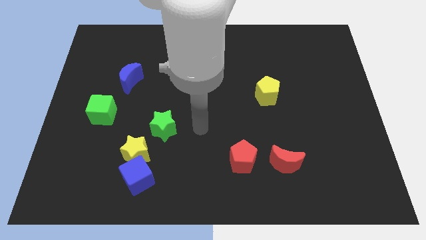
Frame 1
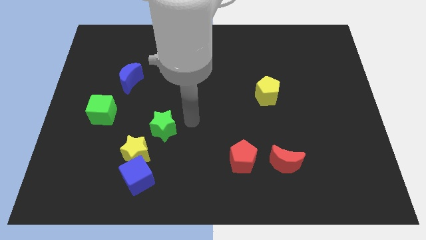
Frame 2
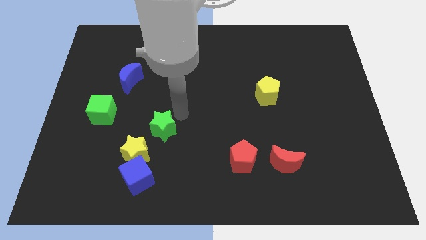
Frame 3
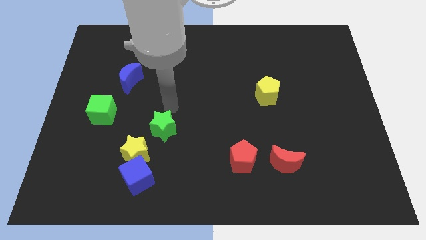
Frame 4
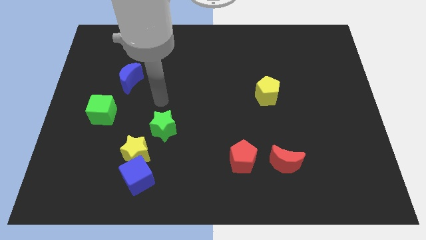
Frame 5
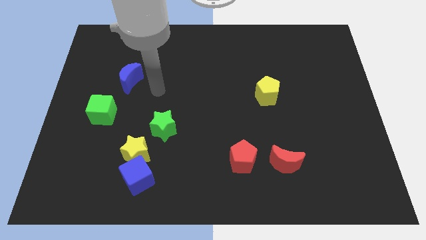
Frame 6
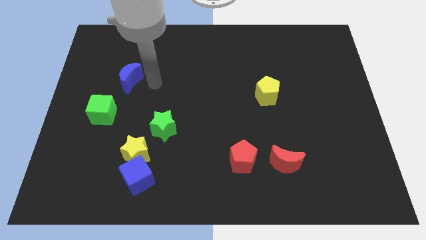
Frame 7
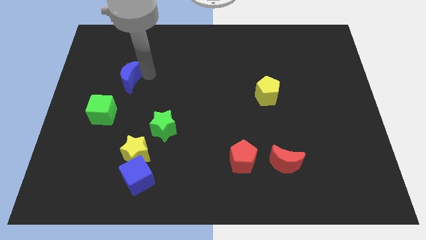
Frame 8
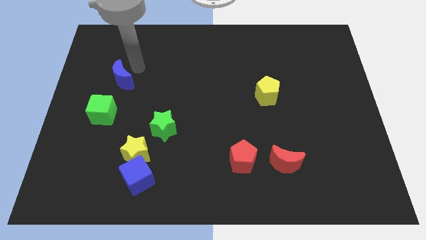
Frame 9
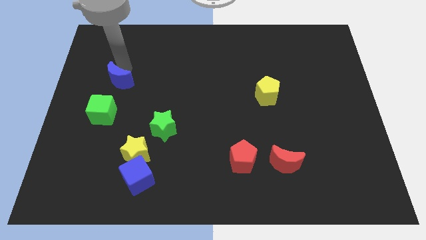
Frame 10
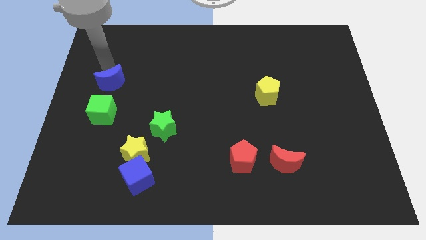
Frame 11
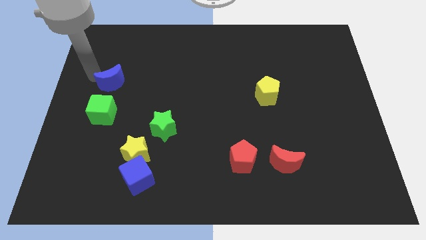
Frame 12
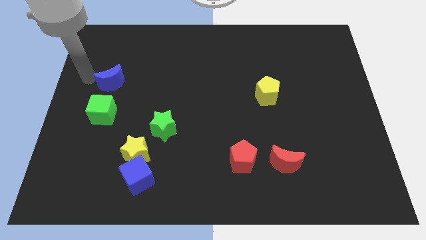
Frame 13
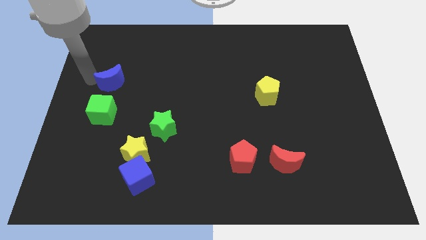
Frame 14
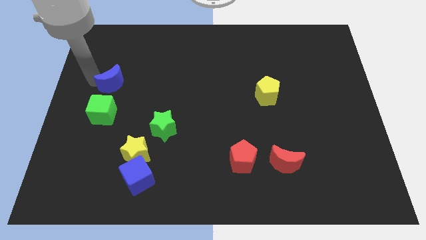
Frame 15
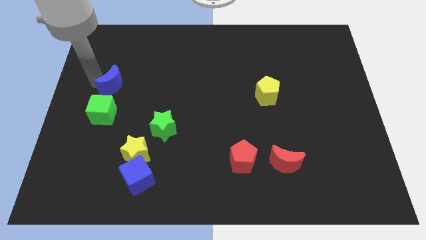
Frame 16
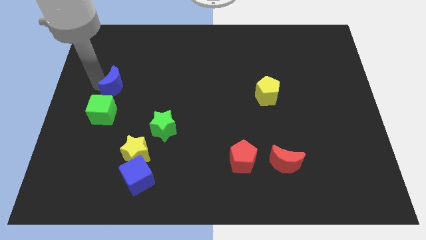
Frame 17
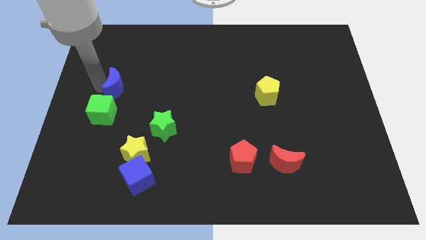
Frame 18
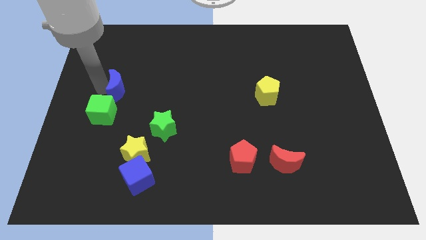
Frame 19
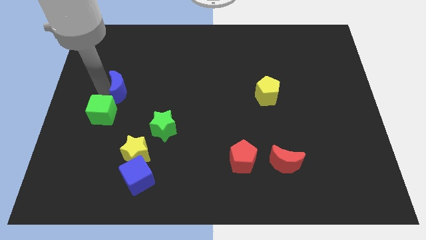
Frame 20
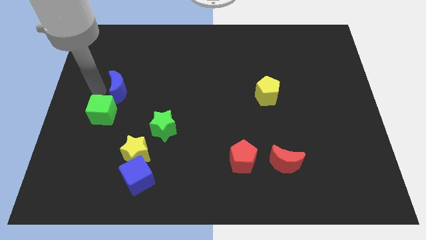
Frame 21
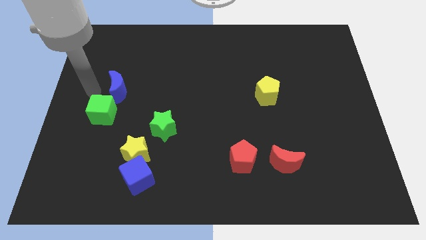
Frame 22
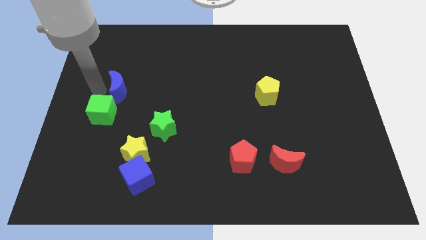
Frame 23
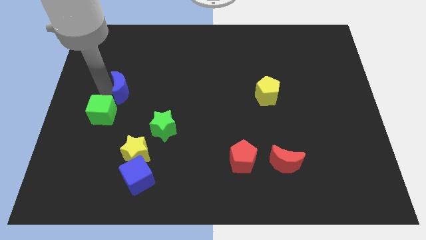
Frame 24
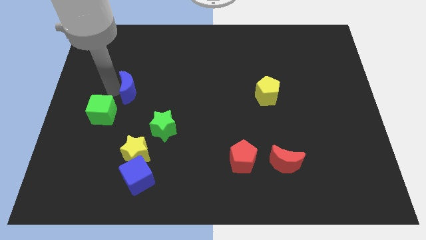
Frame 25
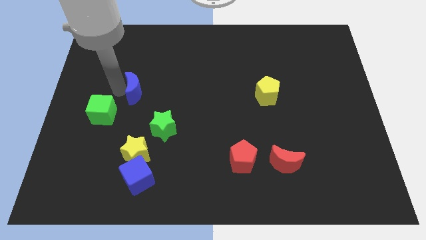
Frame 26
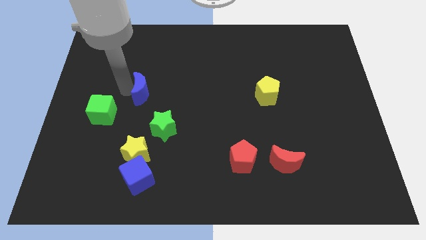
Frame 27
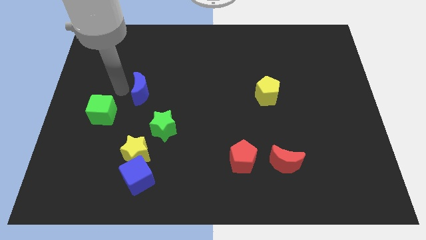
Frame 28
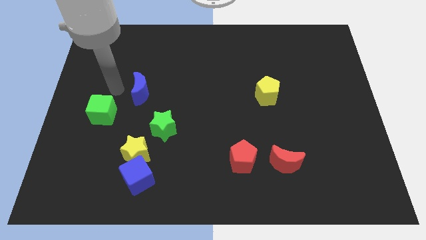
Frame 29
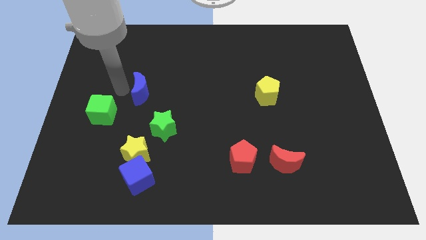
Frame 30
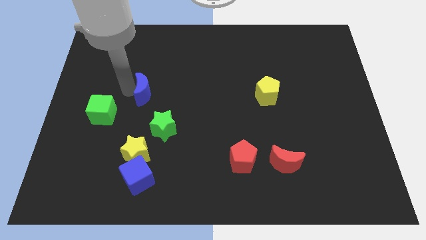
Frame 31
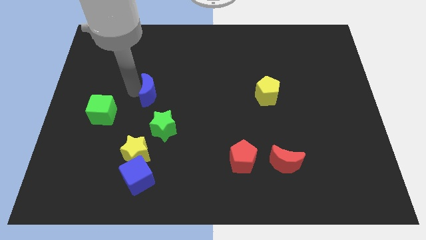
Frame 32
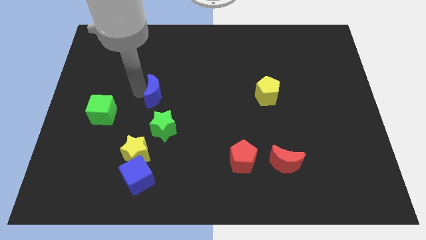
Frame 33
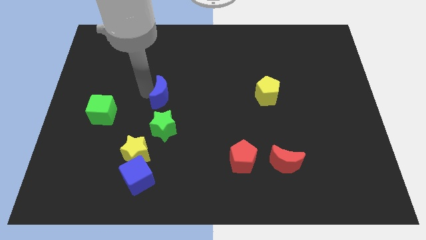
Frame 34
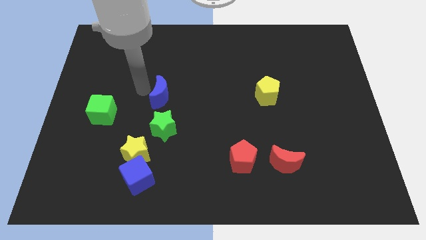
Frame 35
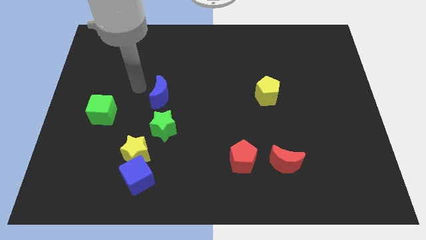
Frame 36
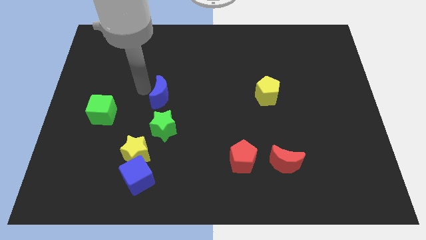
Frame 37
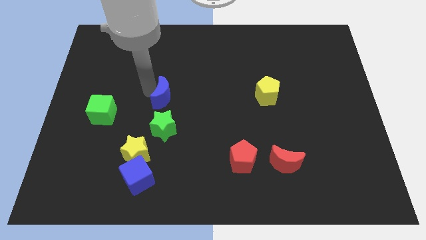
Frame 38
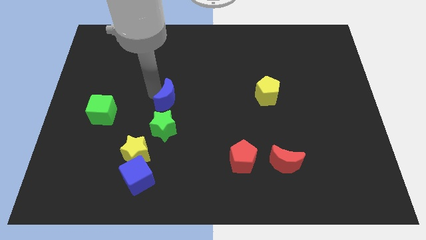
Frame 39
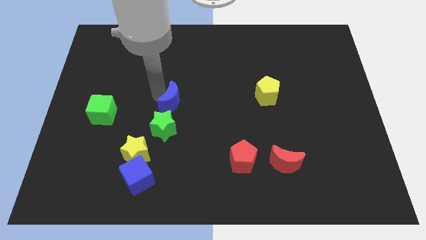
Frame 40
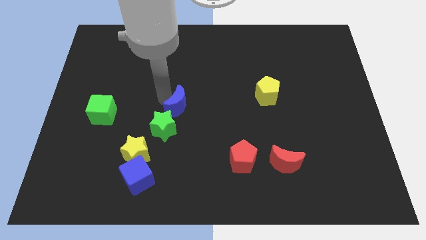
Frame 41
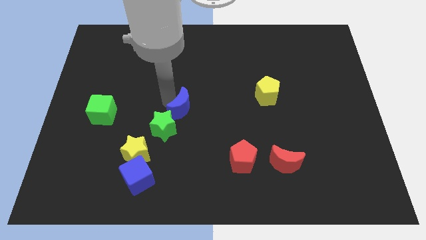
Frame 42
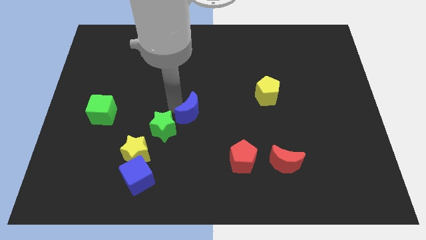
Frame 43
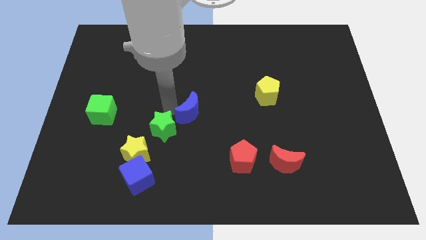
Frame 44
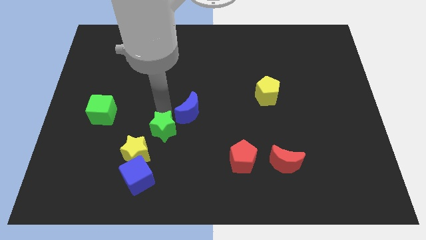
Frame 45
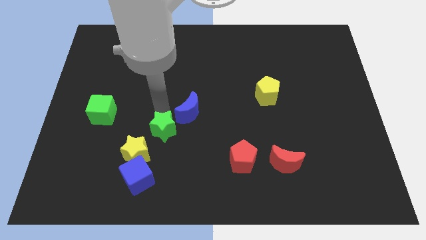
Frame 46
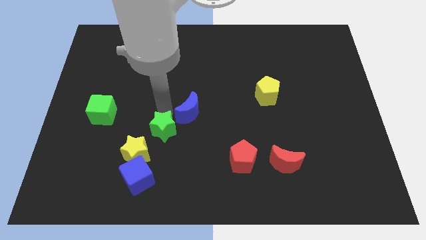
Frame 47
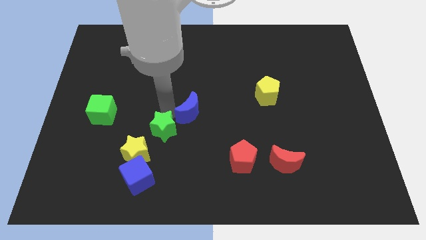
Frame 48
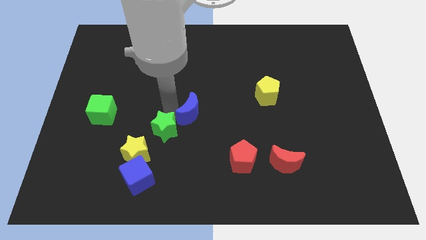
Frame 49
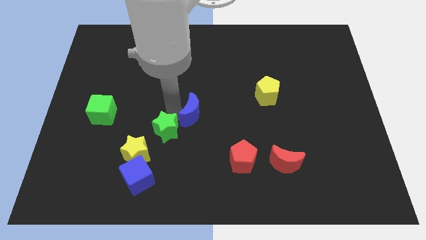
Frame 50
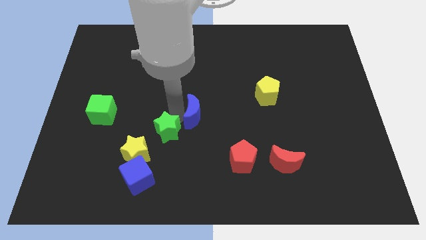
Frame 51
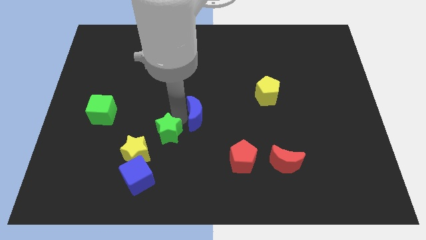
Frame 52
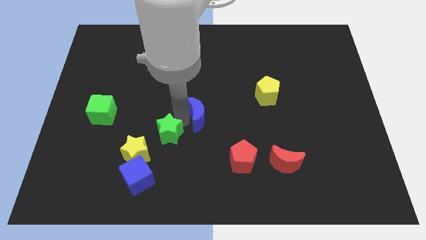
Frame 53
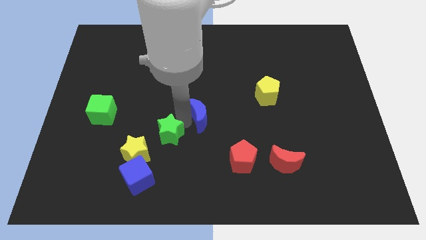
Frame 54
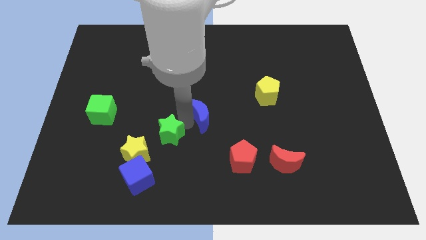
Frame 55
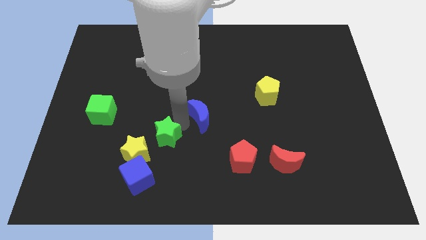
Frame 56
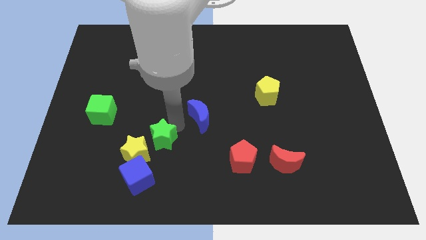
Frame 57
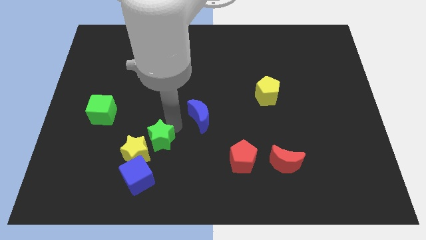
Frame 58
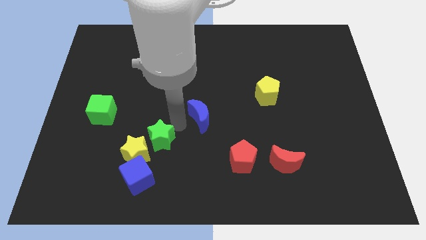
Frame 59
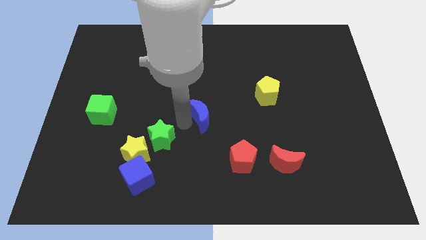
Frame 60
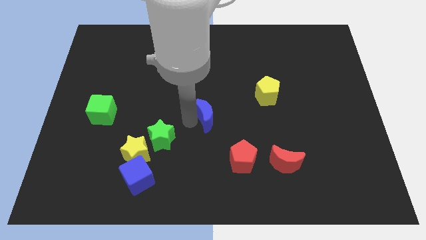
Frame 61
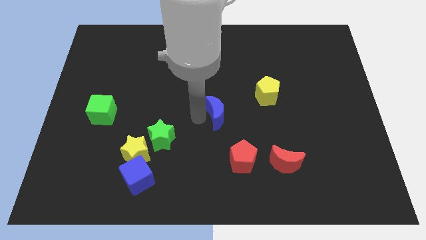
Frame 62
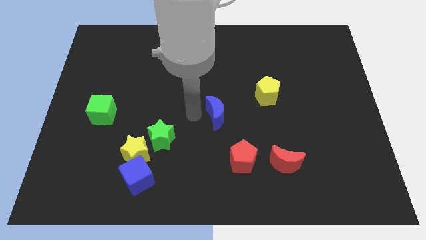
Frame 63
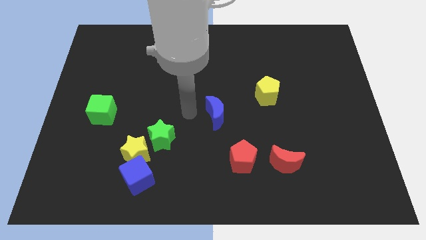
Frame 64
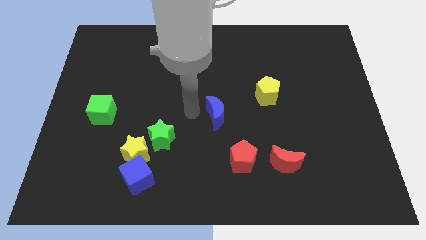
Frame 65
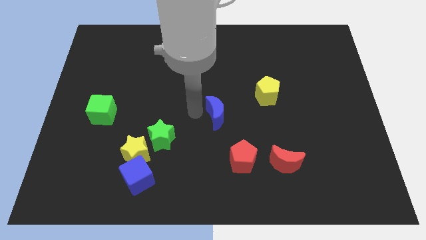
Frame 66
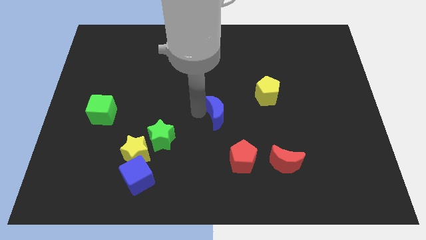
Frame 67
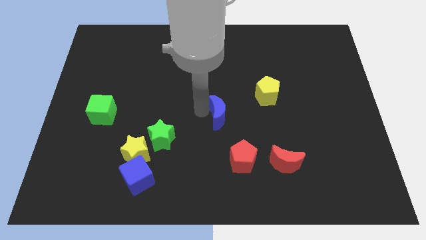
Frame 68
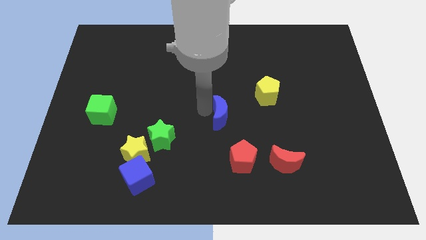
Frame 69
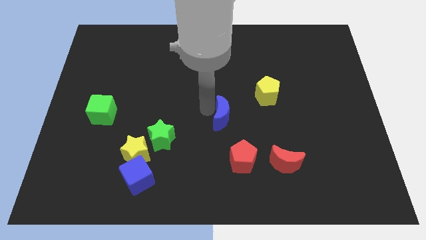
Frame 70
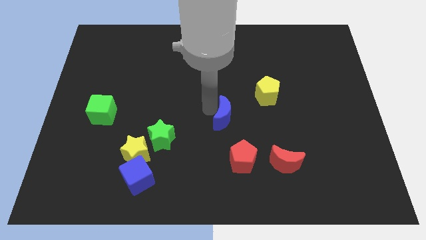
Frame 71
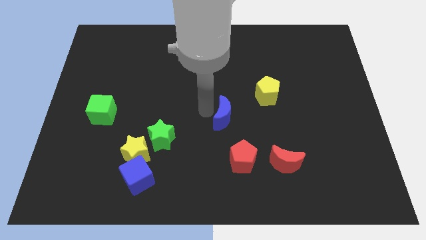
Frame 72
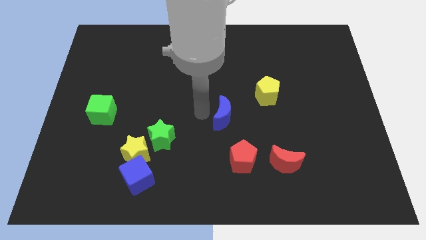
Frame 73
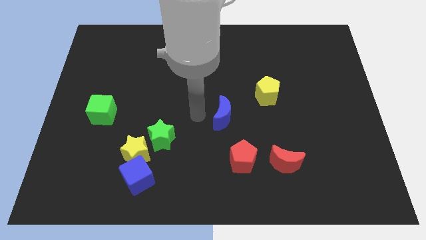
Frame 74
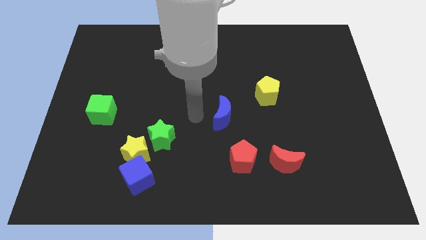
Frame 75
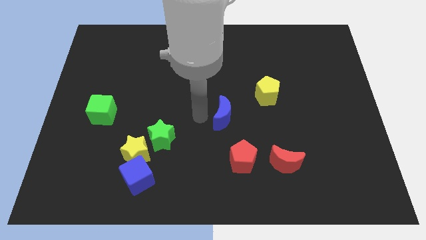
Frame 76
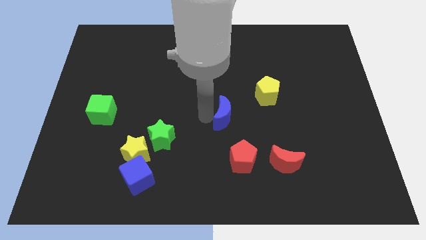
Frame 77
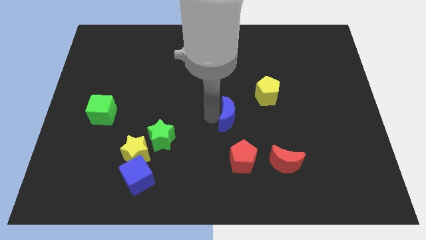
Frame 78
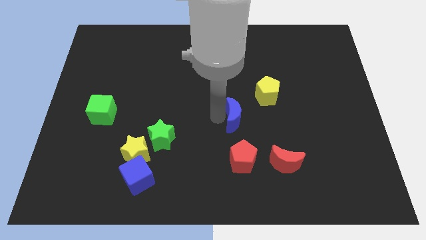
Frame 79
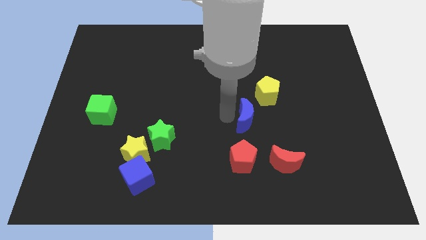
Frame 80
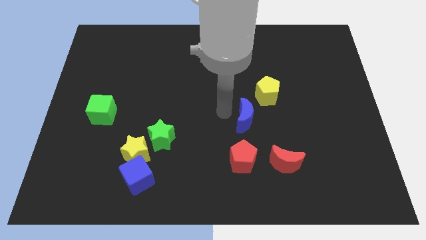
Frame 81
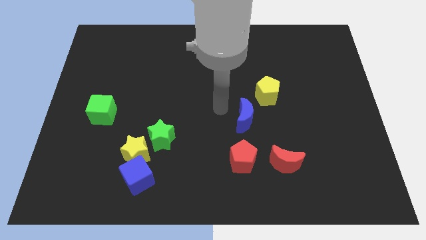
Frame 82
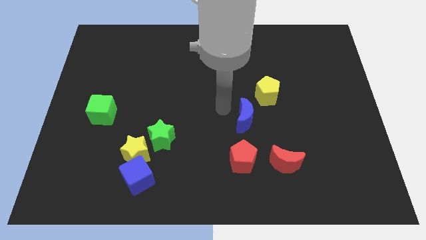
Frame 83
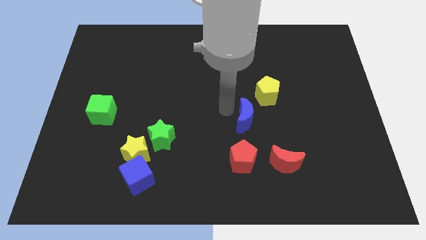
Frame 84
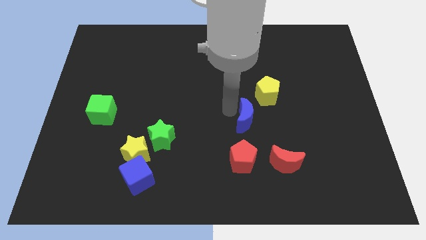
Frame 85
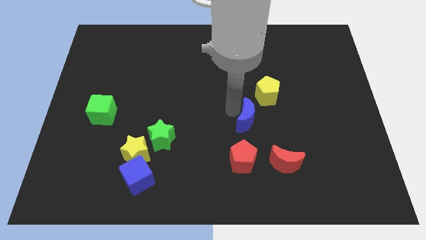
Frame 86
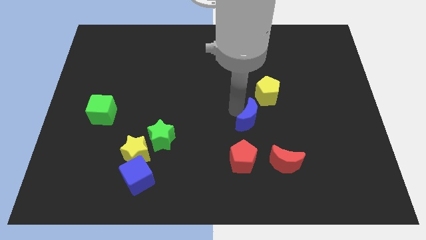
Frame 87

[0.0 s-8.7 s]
put the blue moon below the yellow pentagon
